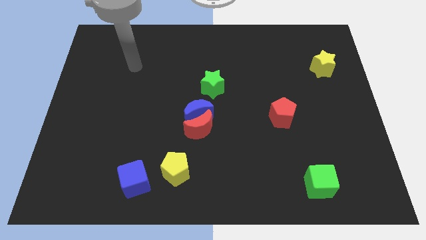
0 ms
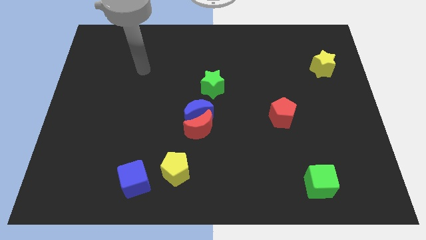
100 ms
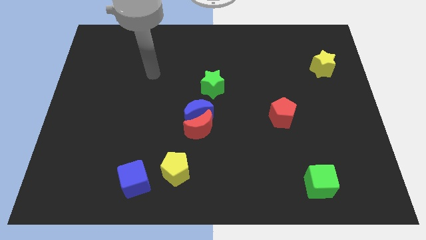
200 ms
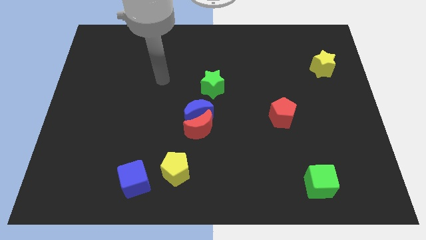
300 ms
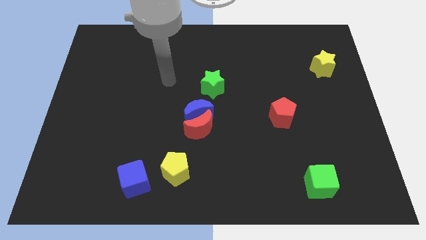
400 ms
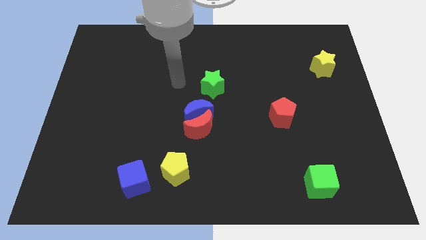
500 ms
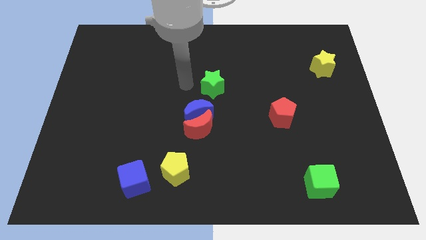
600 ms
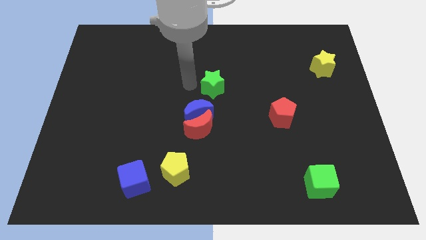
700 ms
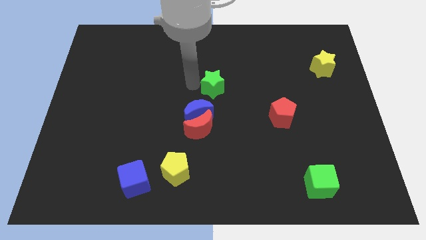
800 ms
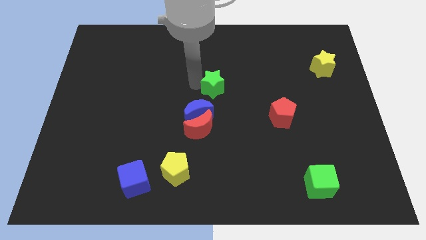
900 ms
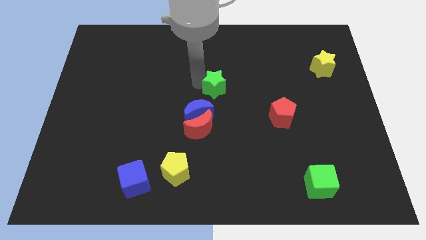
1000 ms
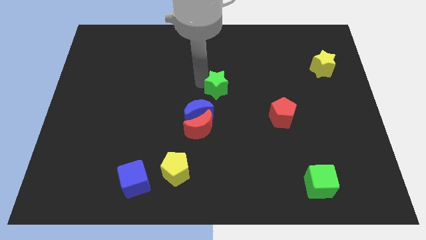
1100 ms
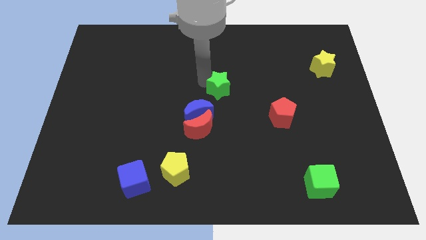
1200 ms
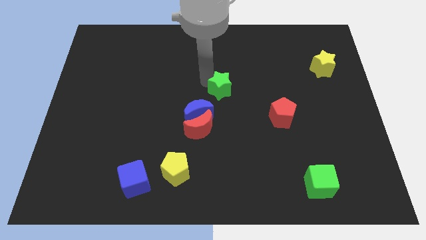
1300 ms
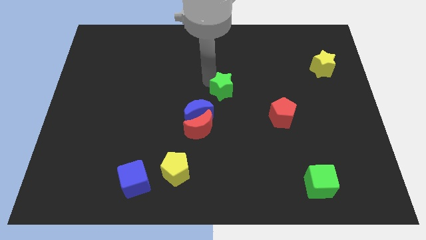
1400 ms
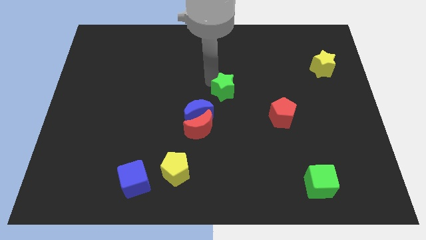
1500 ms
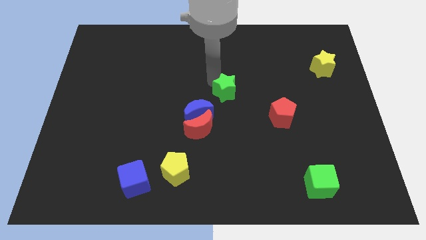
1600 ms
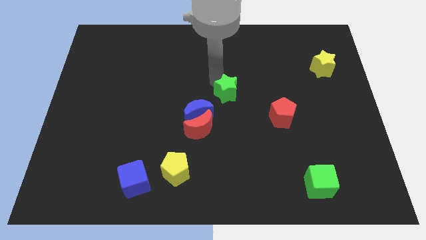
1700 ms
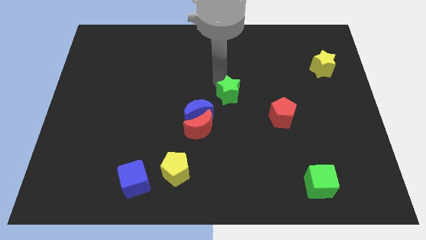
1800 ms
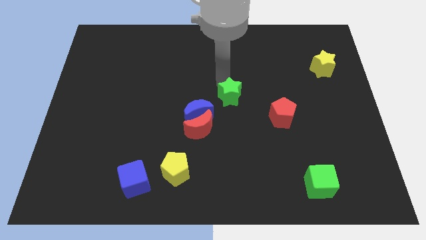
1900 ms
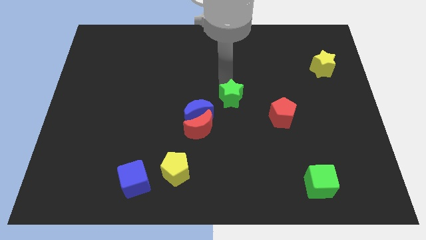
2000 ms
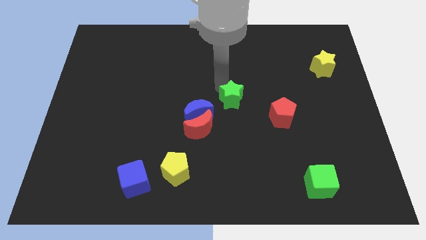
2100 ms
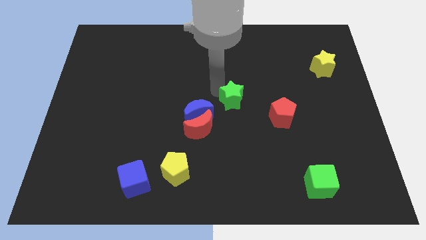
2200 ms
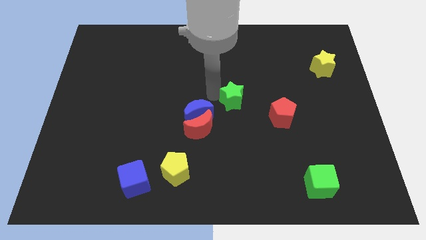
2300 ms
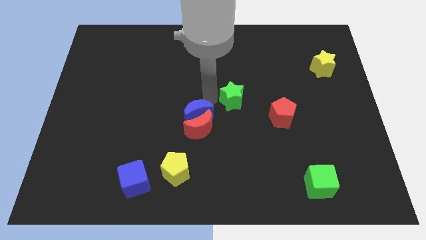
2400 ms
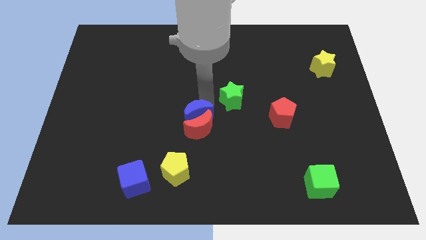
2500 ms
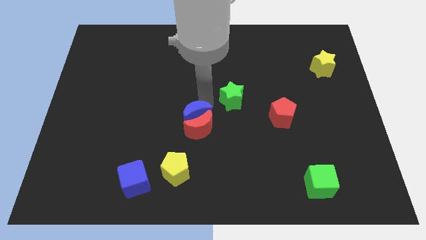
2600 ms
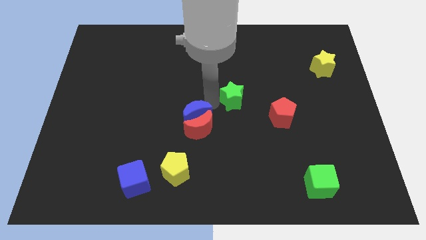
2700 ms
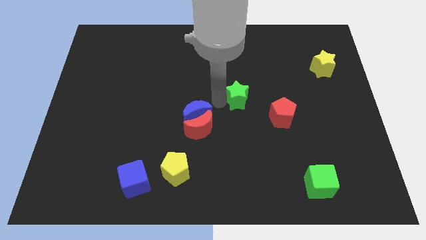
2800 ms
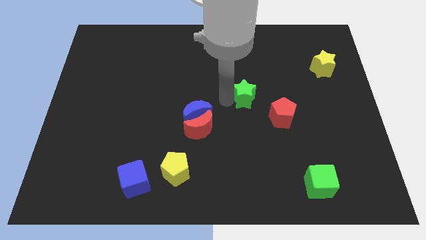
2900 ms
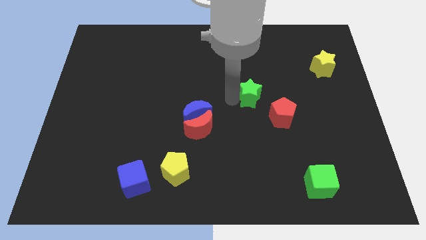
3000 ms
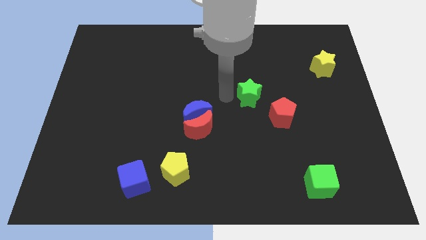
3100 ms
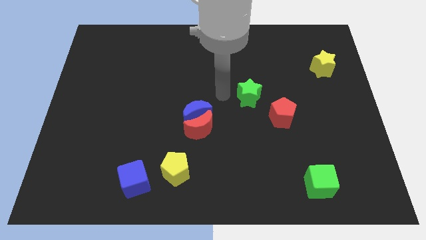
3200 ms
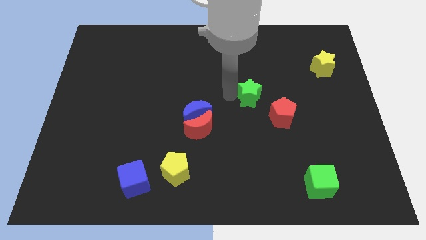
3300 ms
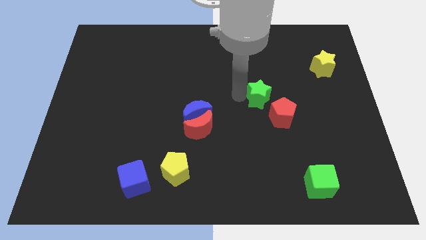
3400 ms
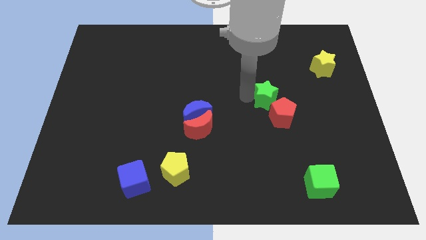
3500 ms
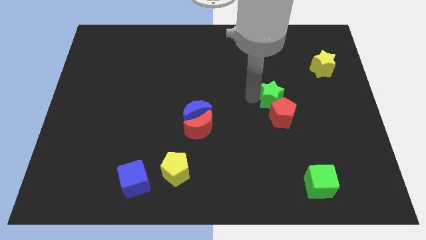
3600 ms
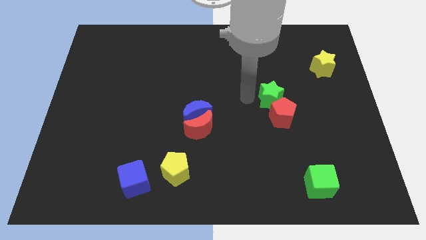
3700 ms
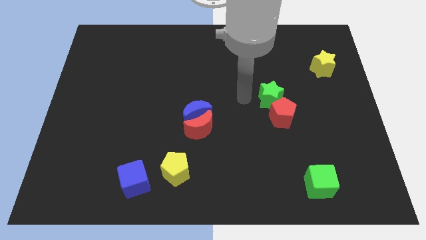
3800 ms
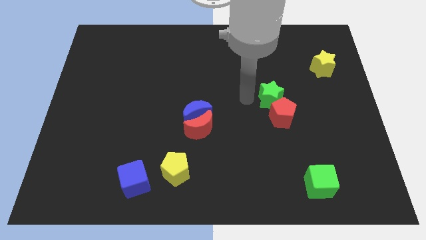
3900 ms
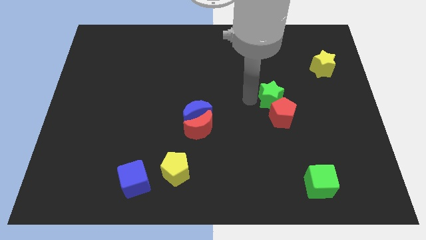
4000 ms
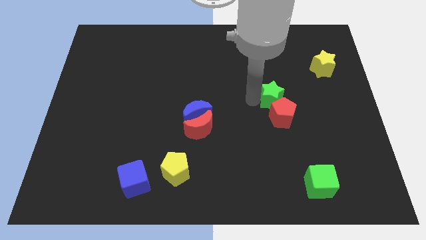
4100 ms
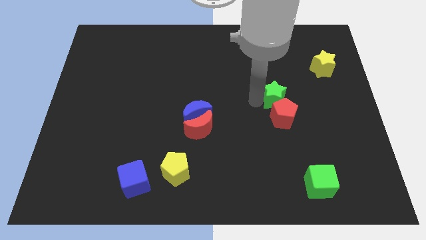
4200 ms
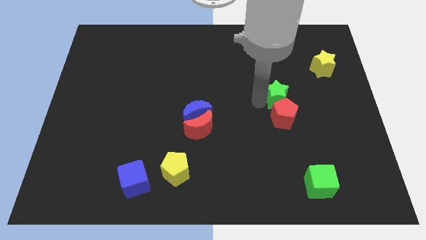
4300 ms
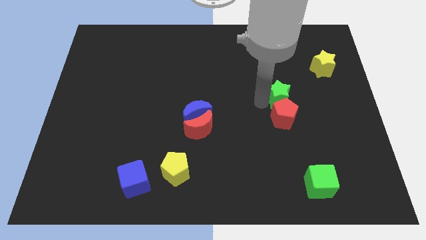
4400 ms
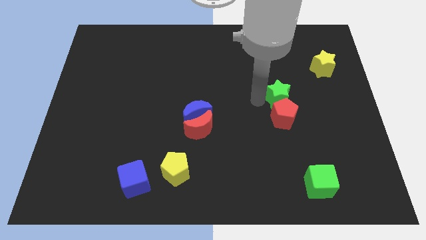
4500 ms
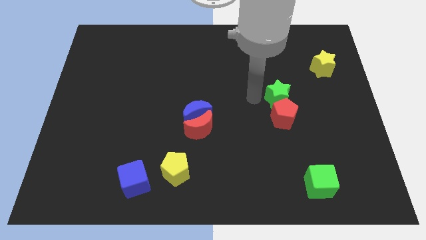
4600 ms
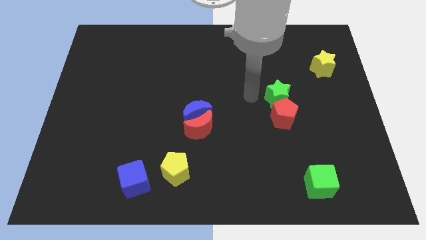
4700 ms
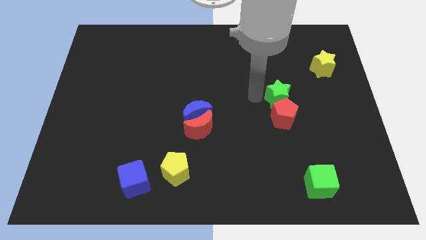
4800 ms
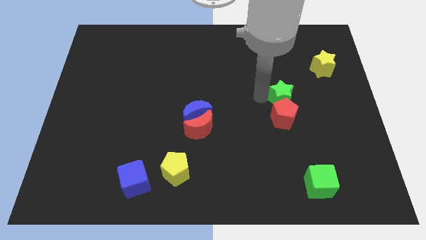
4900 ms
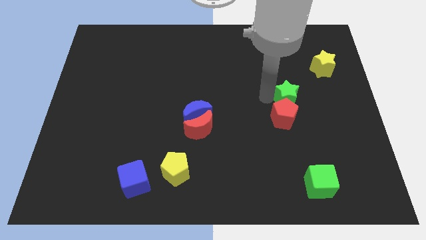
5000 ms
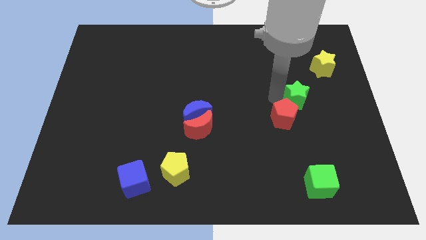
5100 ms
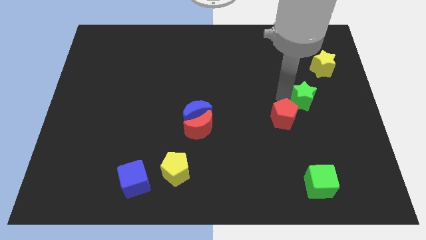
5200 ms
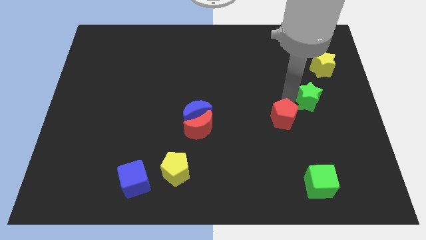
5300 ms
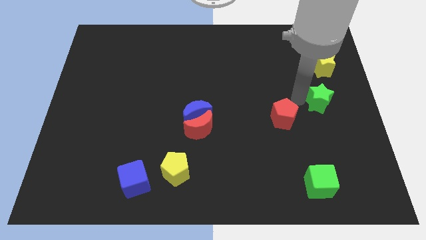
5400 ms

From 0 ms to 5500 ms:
slide the green star to the right side of the board

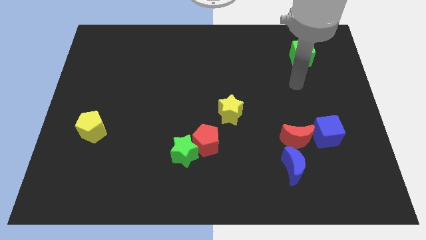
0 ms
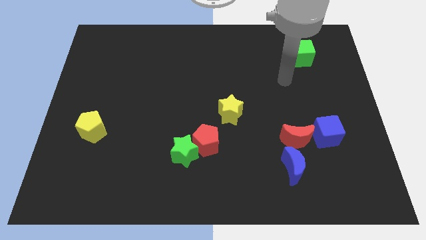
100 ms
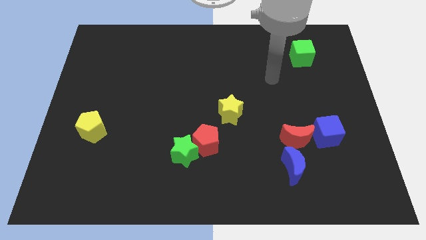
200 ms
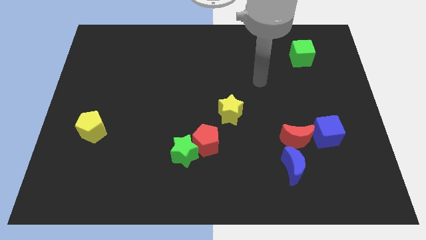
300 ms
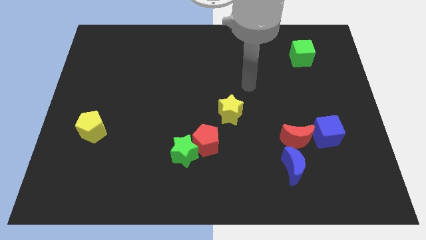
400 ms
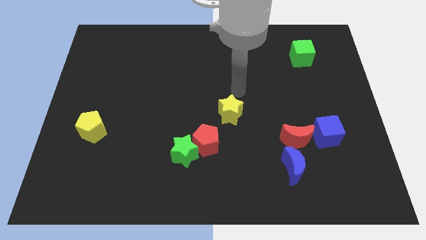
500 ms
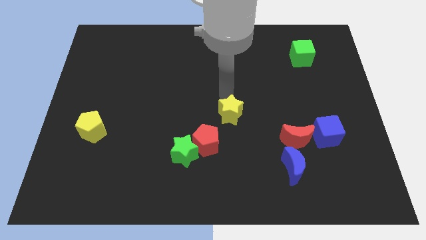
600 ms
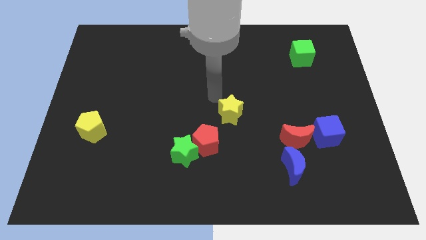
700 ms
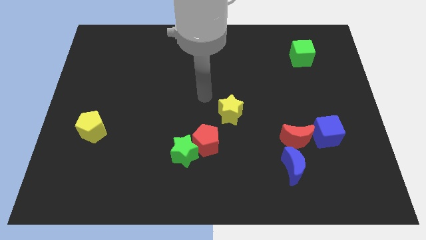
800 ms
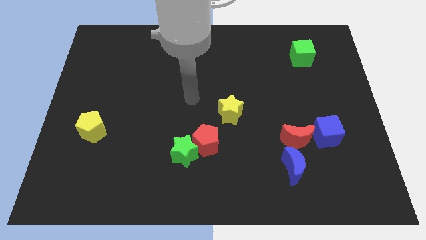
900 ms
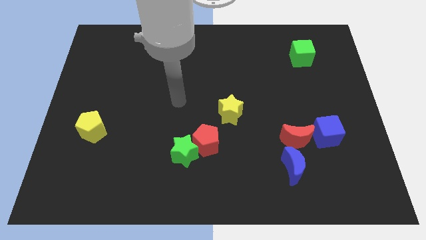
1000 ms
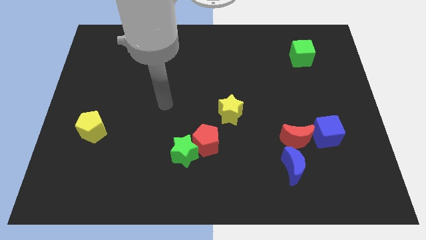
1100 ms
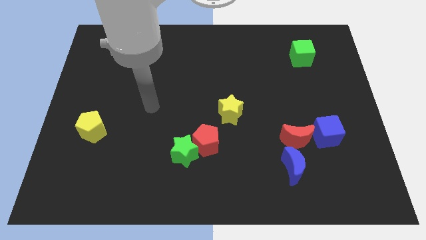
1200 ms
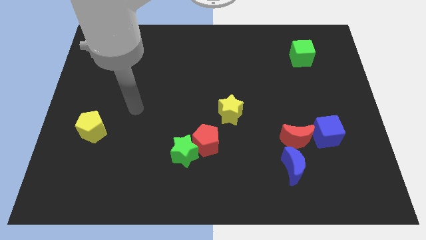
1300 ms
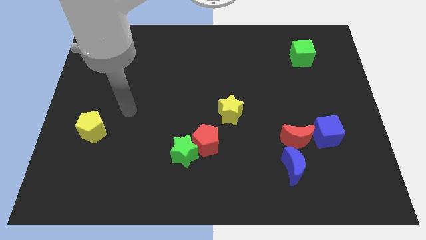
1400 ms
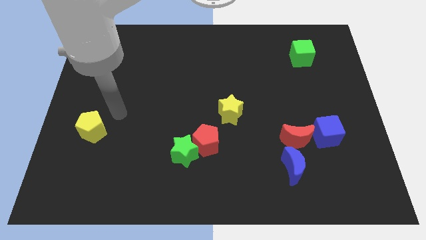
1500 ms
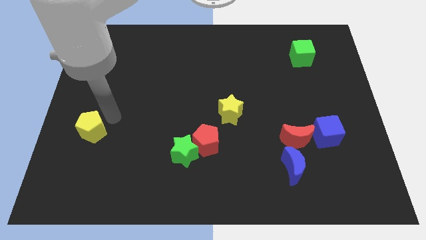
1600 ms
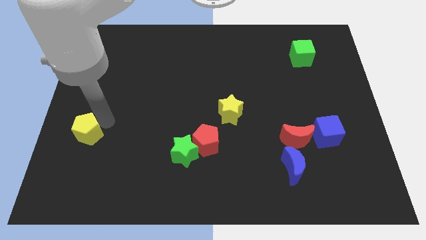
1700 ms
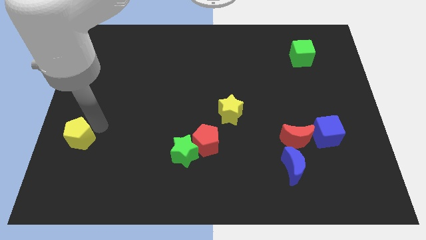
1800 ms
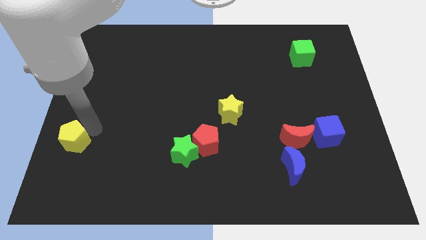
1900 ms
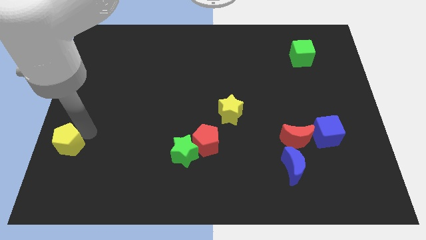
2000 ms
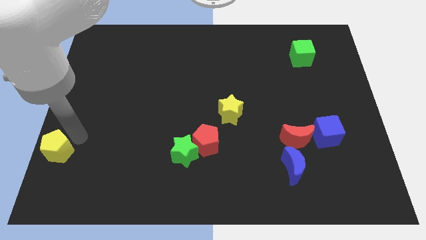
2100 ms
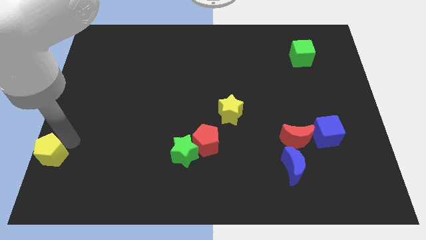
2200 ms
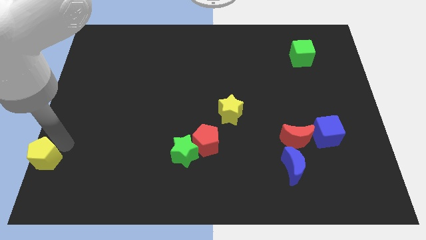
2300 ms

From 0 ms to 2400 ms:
slide the yellow pentagon to the bottom left
